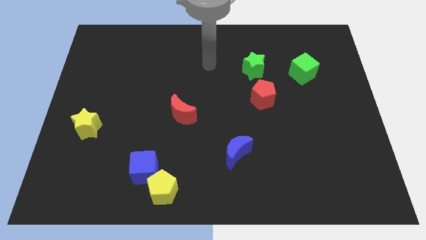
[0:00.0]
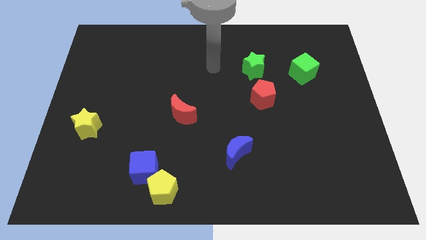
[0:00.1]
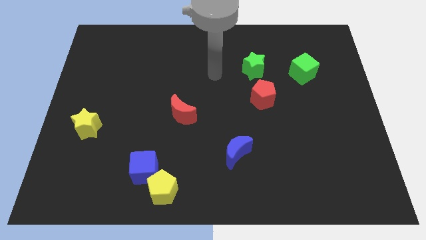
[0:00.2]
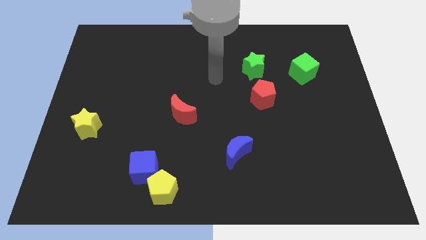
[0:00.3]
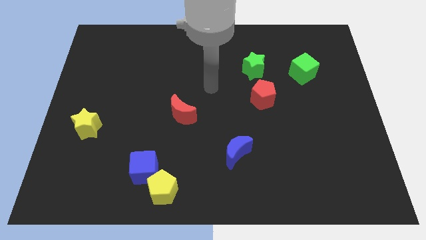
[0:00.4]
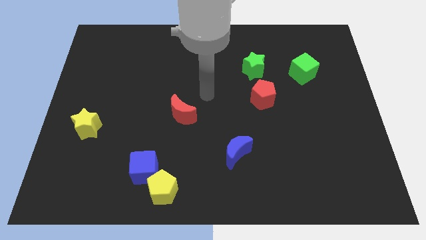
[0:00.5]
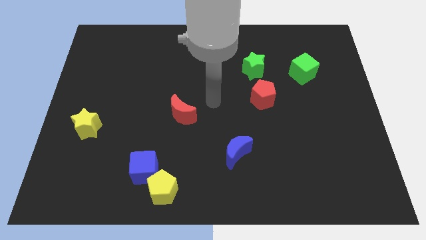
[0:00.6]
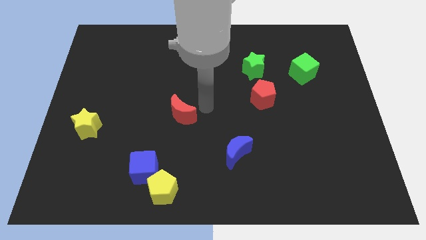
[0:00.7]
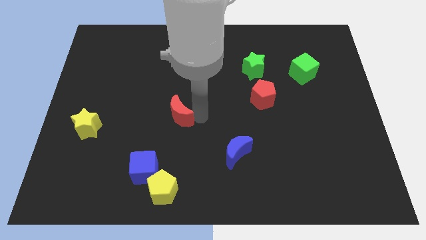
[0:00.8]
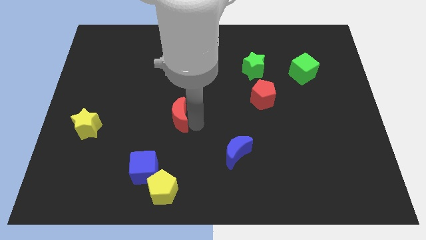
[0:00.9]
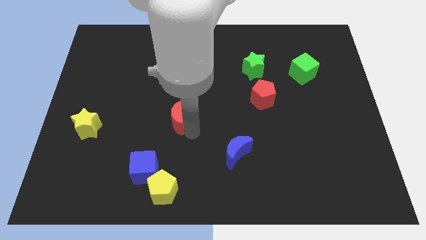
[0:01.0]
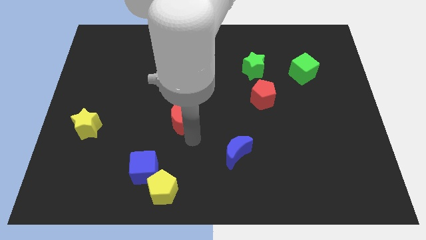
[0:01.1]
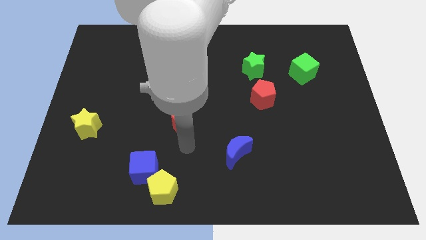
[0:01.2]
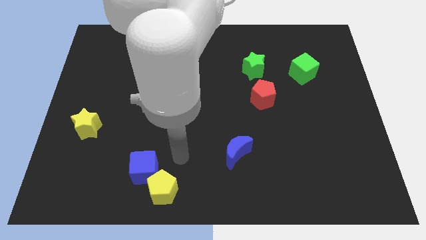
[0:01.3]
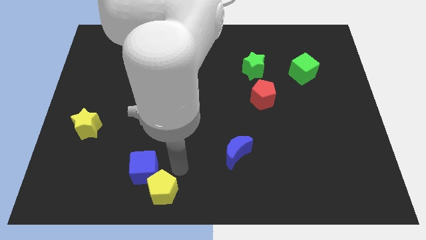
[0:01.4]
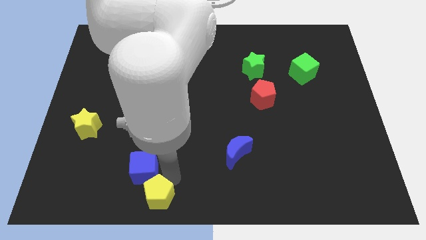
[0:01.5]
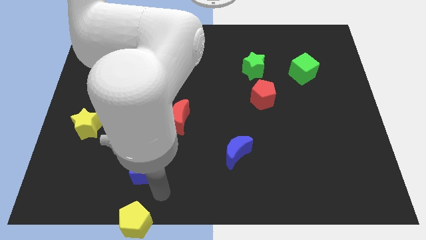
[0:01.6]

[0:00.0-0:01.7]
move the blue cube away from the yellow pentagon

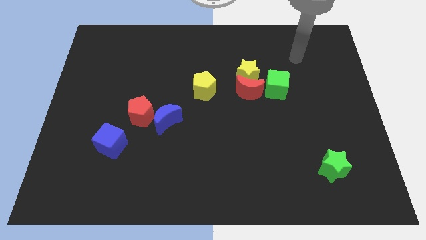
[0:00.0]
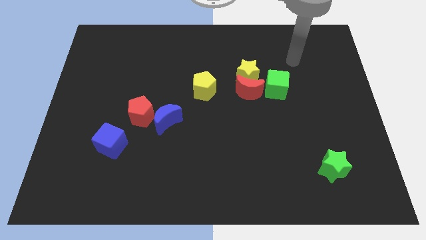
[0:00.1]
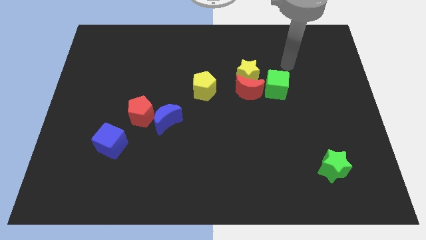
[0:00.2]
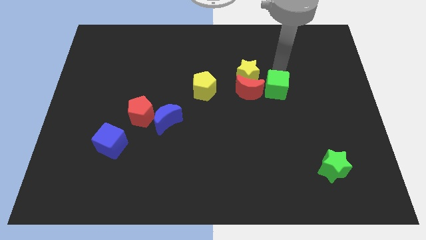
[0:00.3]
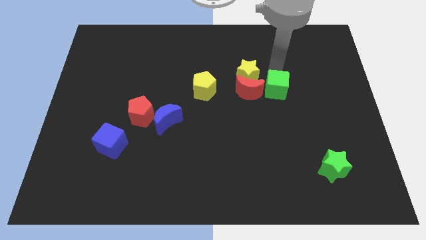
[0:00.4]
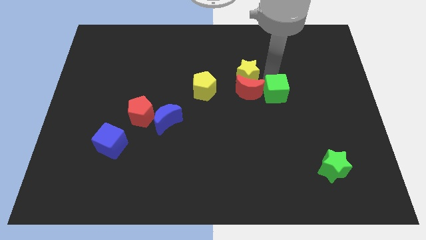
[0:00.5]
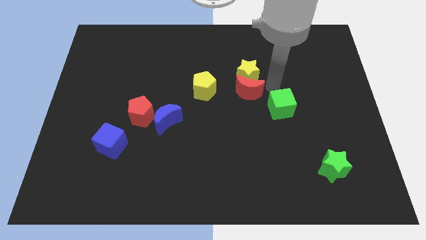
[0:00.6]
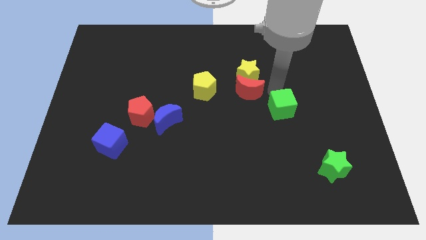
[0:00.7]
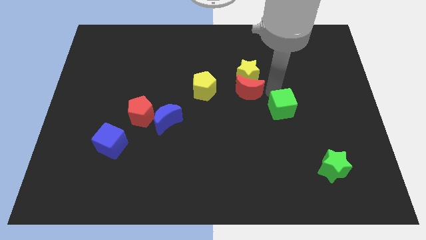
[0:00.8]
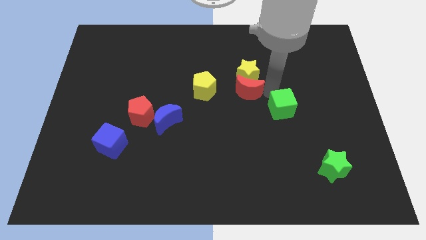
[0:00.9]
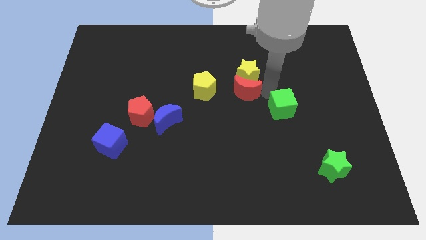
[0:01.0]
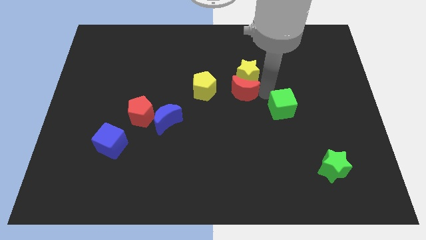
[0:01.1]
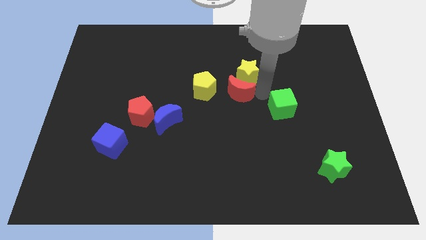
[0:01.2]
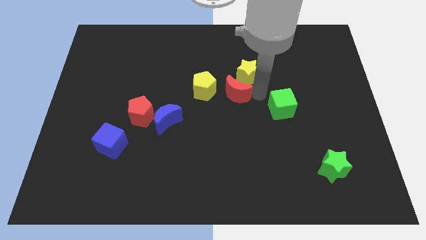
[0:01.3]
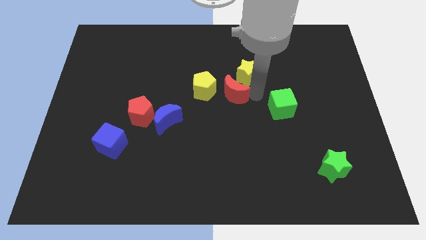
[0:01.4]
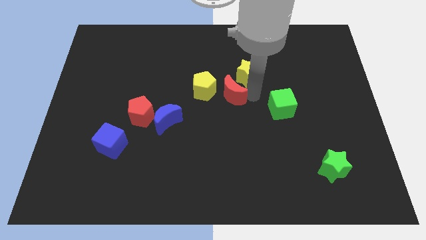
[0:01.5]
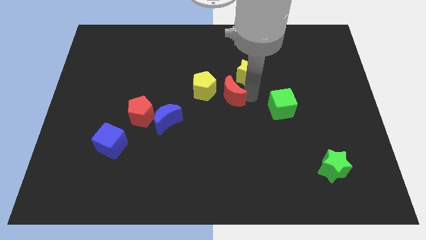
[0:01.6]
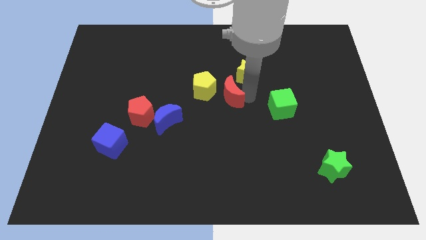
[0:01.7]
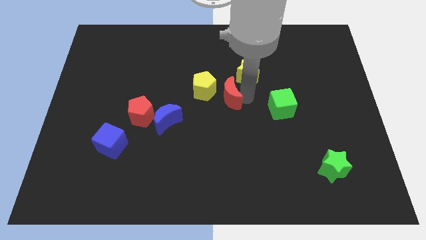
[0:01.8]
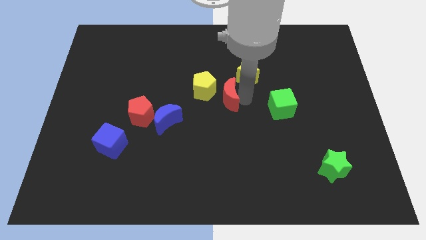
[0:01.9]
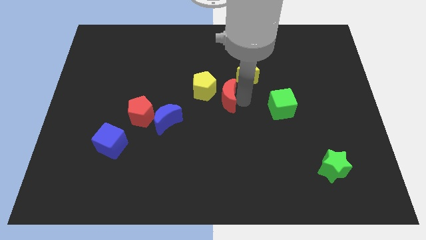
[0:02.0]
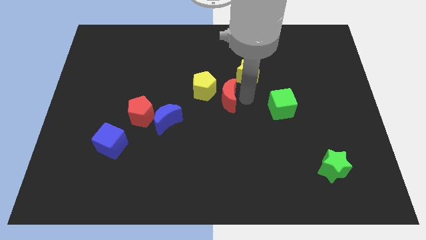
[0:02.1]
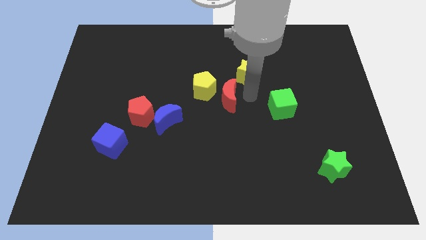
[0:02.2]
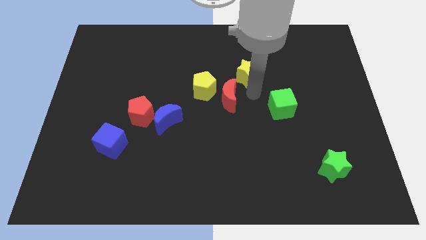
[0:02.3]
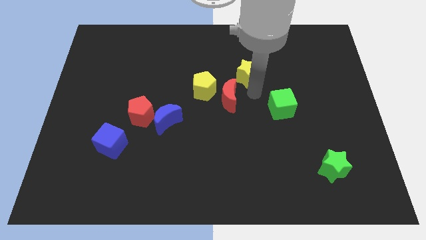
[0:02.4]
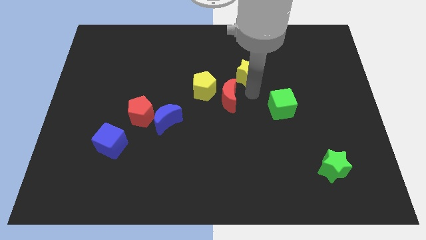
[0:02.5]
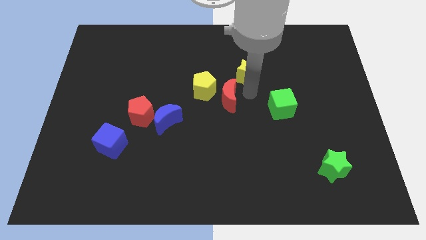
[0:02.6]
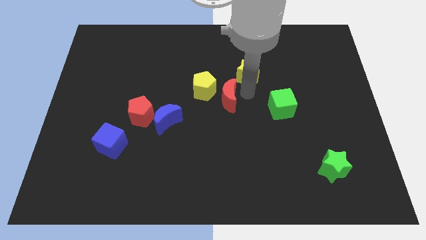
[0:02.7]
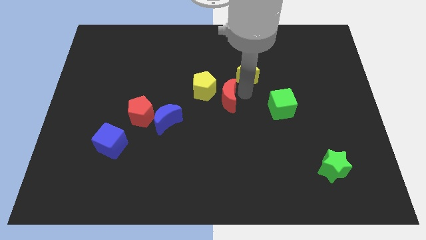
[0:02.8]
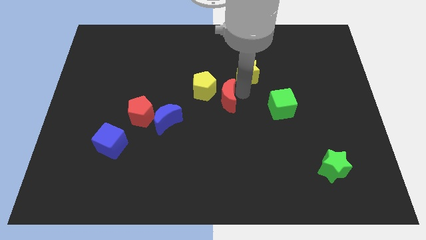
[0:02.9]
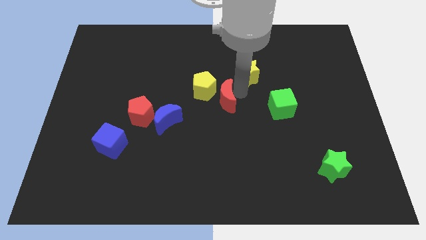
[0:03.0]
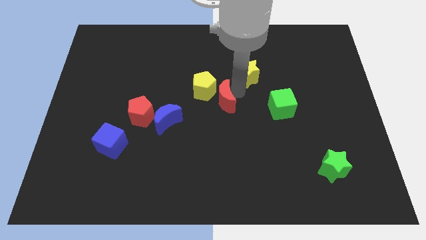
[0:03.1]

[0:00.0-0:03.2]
separate the red moon from the yellow star and green cube

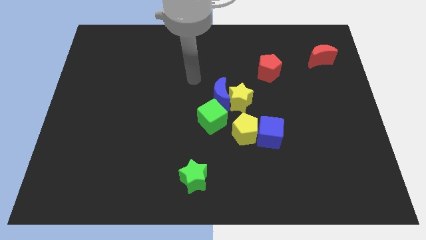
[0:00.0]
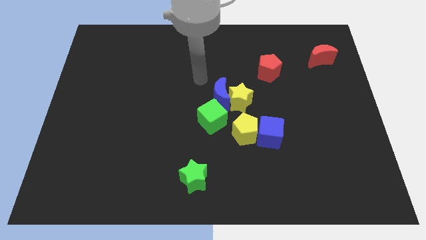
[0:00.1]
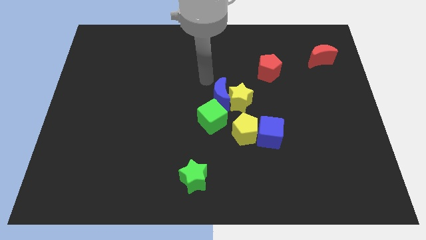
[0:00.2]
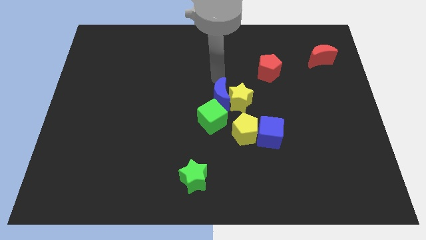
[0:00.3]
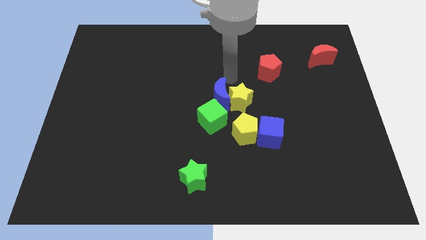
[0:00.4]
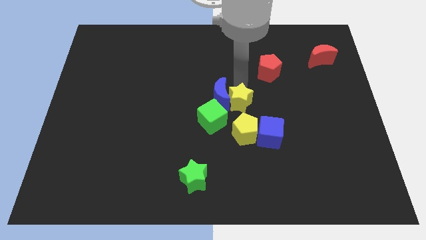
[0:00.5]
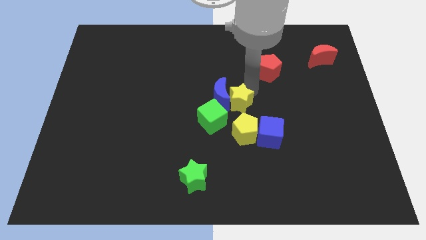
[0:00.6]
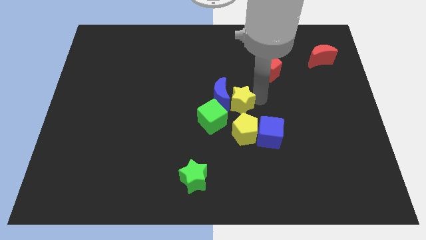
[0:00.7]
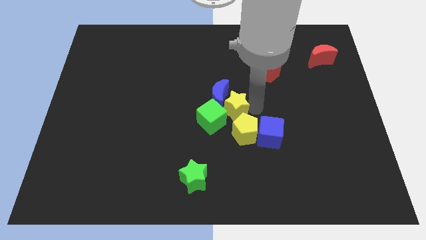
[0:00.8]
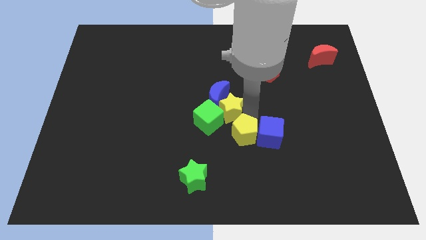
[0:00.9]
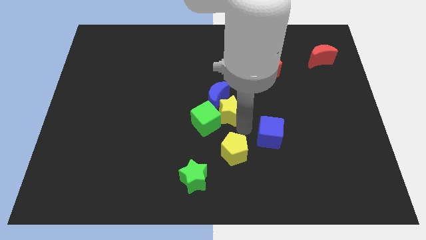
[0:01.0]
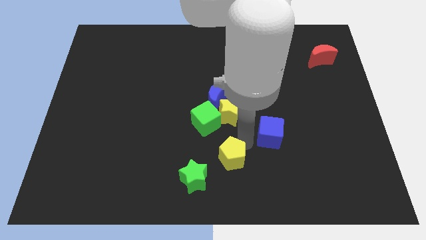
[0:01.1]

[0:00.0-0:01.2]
pull the blue cube apart from the yellow pentagon

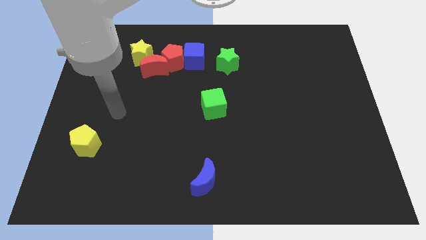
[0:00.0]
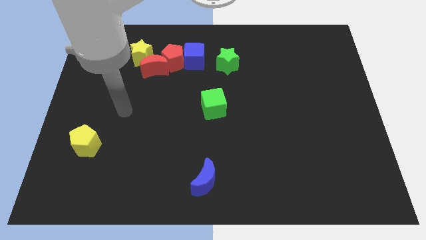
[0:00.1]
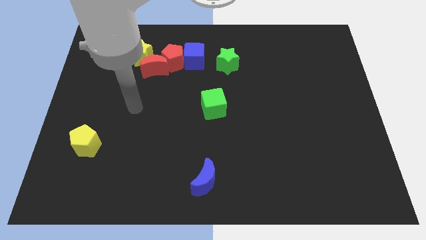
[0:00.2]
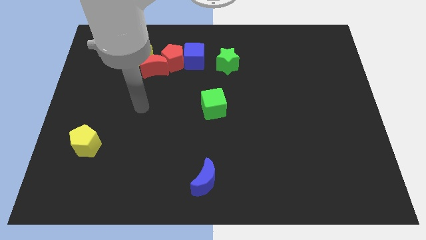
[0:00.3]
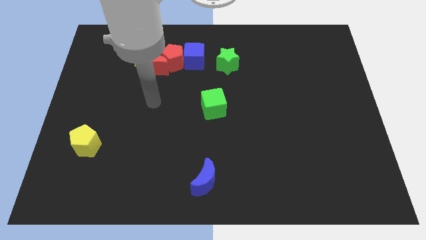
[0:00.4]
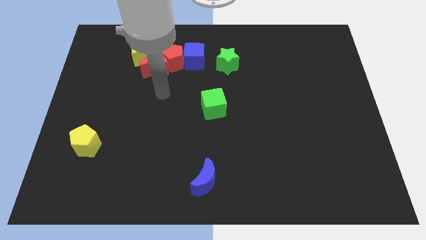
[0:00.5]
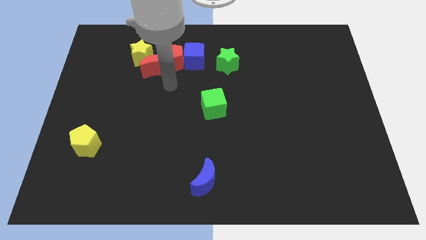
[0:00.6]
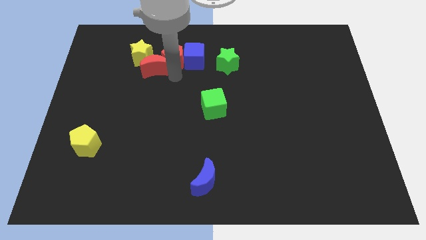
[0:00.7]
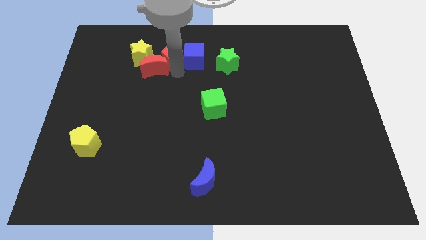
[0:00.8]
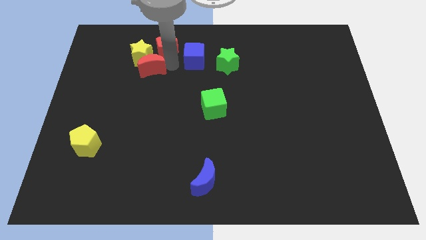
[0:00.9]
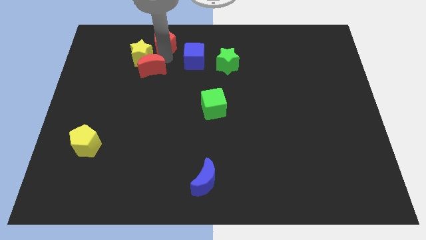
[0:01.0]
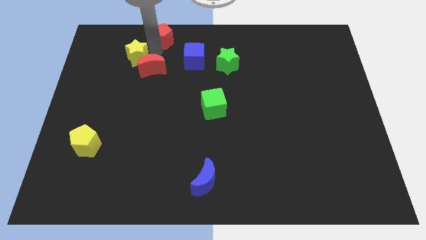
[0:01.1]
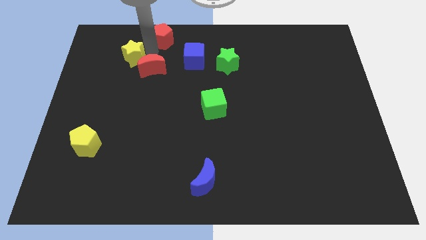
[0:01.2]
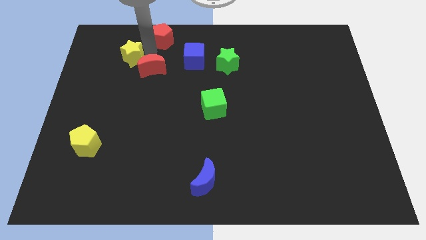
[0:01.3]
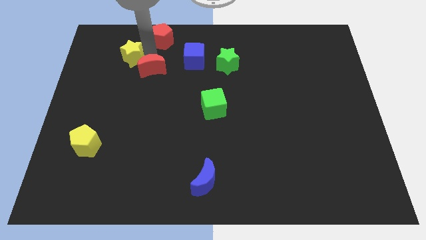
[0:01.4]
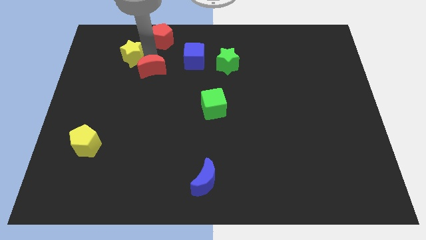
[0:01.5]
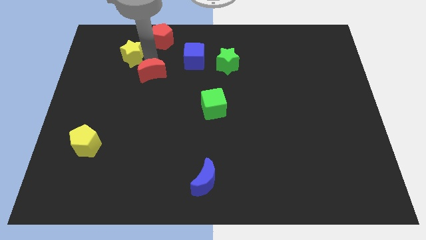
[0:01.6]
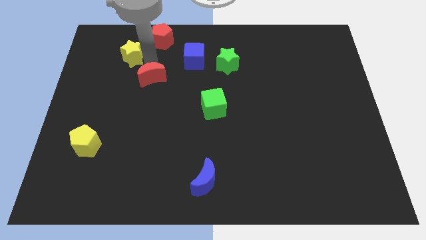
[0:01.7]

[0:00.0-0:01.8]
pull the red moon apart from the red pentagon and yellow star

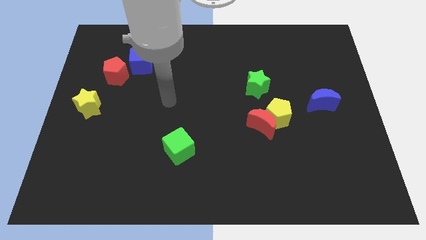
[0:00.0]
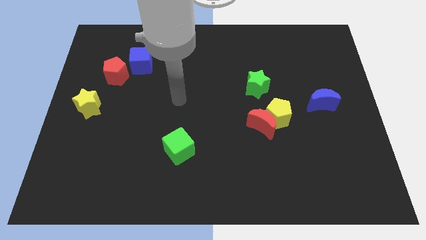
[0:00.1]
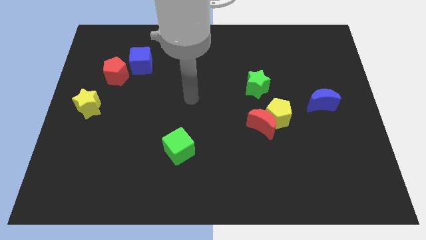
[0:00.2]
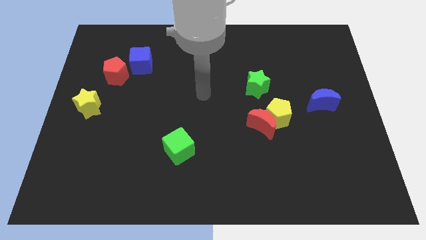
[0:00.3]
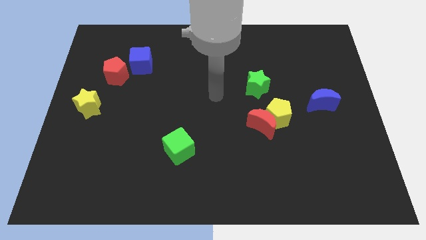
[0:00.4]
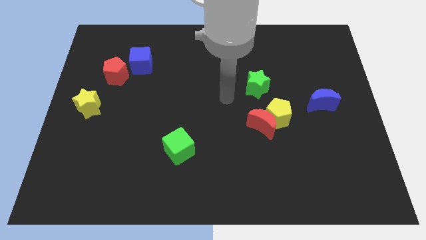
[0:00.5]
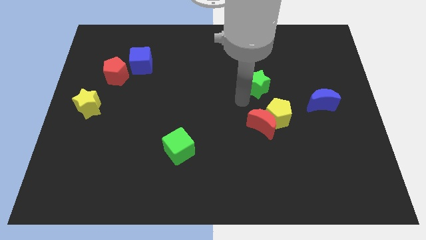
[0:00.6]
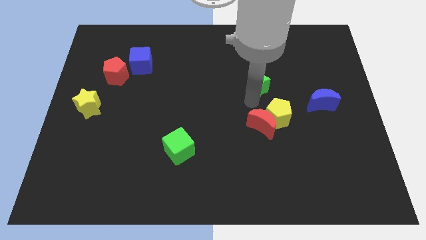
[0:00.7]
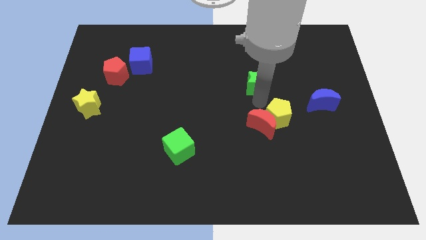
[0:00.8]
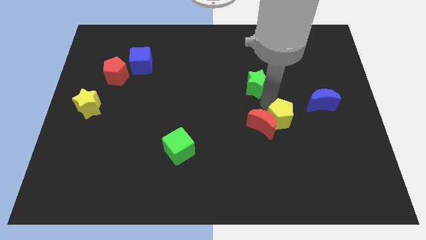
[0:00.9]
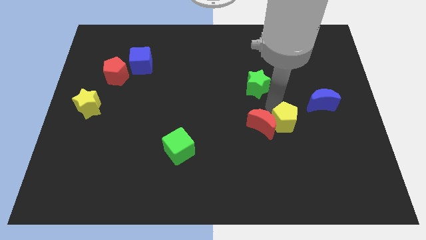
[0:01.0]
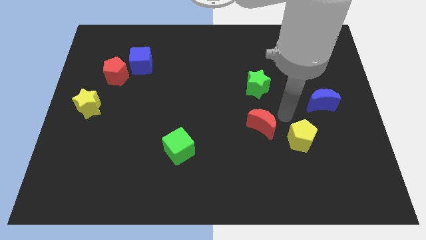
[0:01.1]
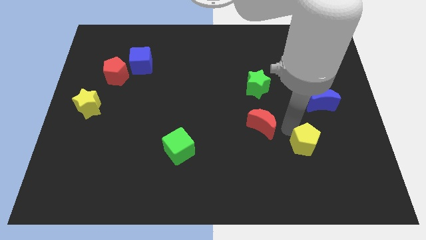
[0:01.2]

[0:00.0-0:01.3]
separate the red moon from the yellow pentagon

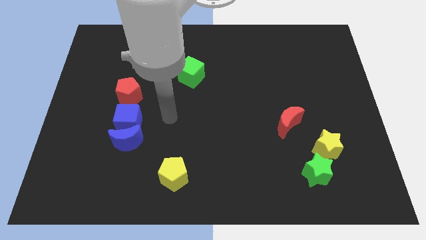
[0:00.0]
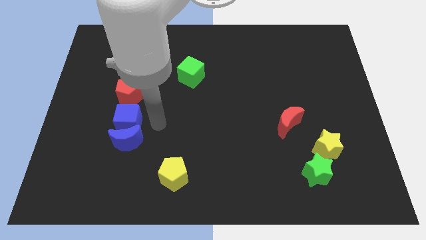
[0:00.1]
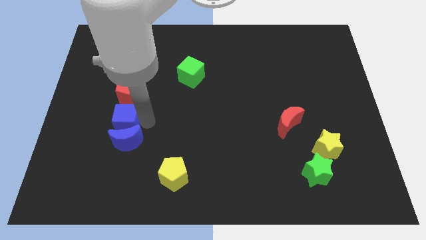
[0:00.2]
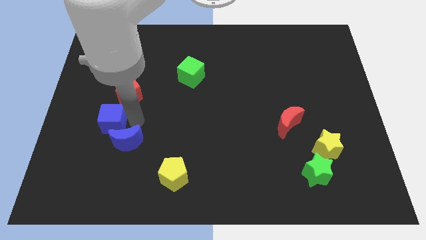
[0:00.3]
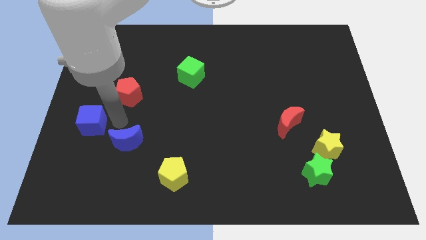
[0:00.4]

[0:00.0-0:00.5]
move the blue moon away from the blue cube
